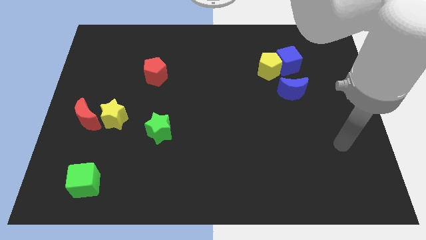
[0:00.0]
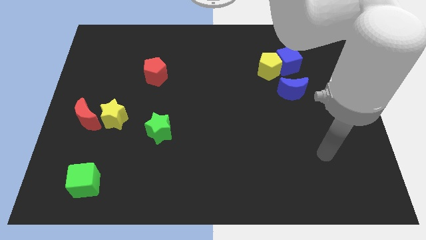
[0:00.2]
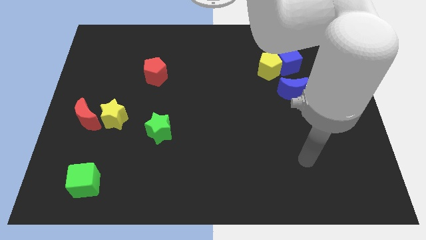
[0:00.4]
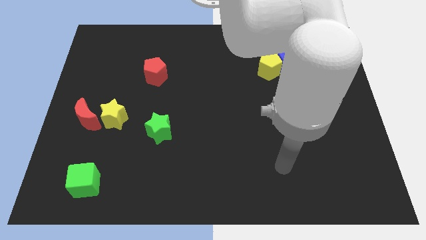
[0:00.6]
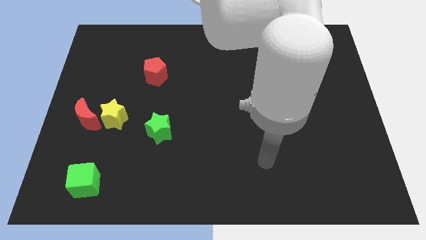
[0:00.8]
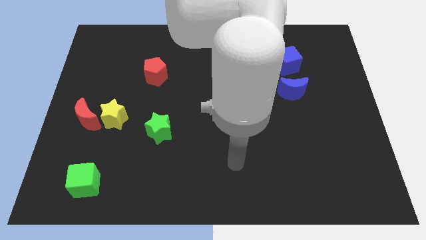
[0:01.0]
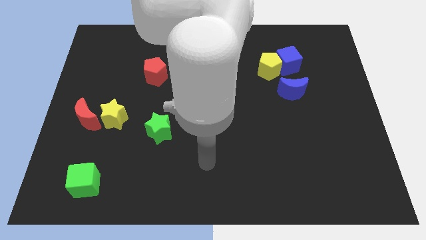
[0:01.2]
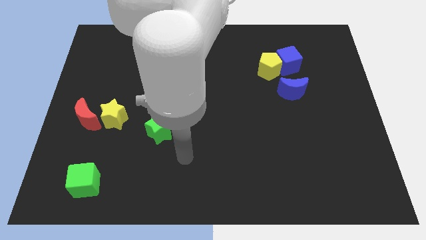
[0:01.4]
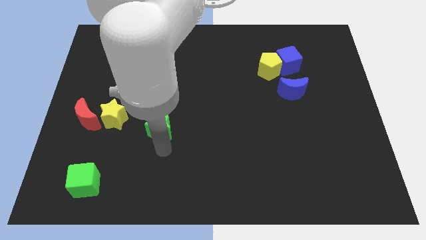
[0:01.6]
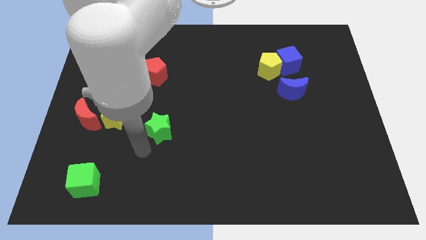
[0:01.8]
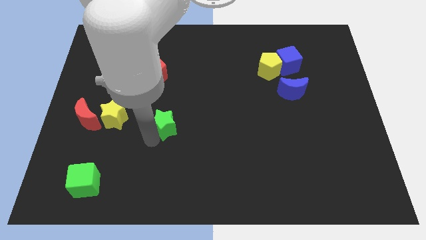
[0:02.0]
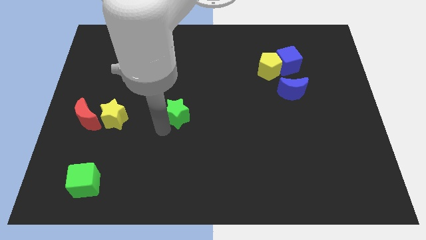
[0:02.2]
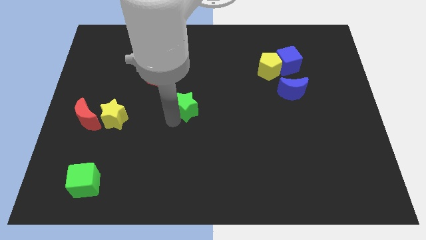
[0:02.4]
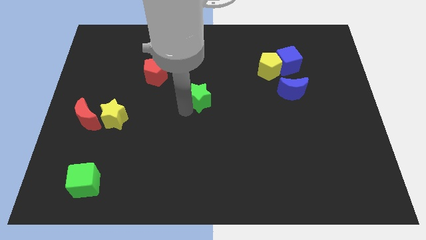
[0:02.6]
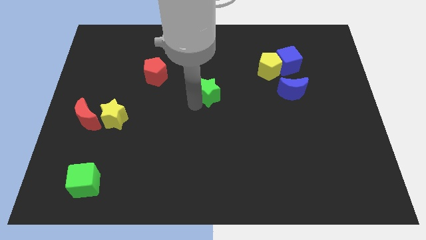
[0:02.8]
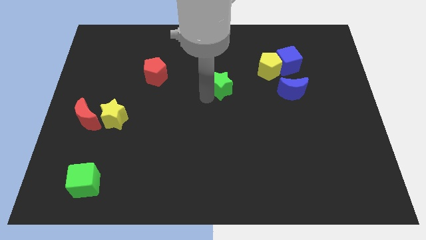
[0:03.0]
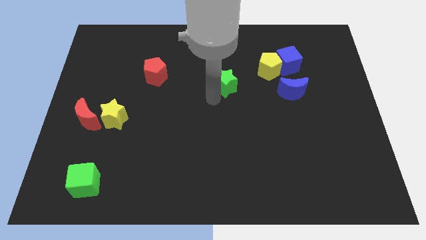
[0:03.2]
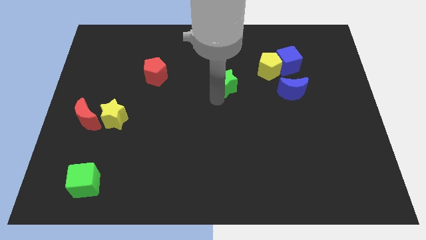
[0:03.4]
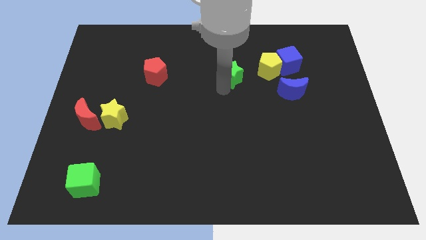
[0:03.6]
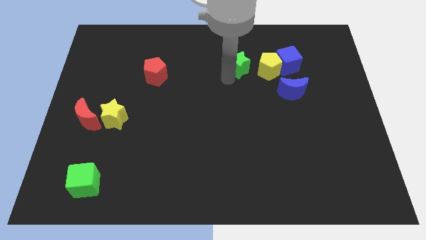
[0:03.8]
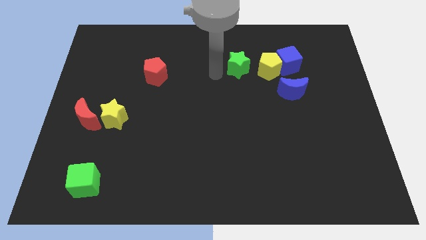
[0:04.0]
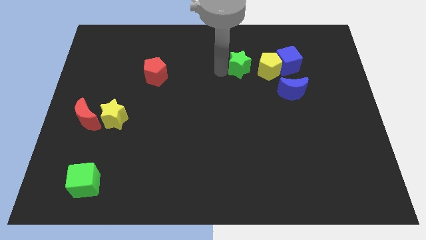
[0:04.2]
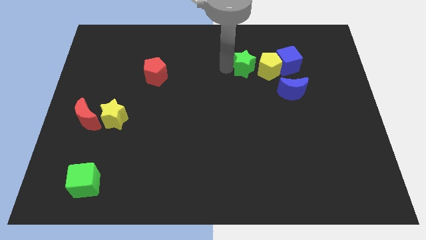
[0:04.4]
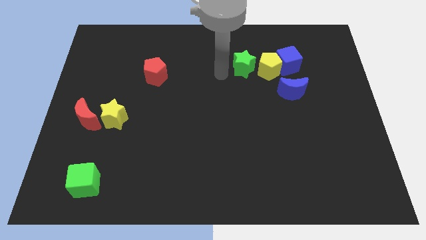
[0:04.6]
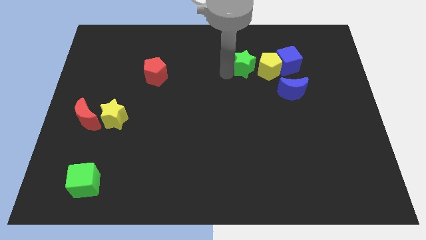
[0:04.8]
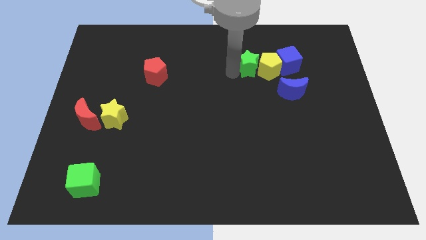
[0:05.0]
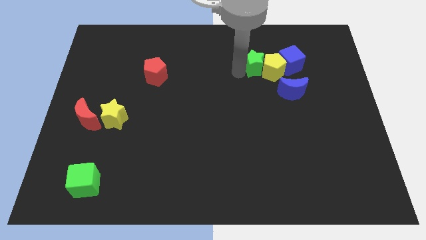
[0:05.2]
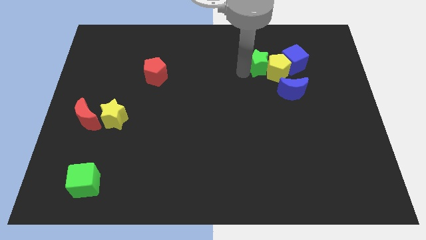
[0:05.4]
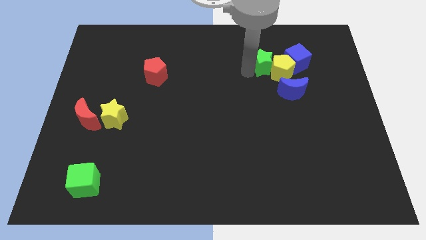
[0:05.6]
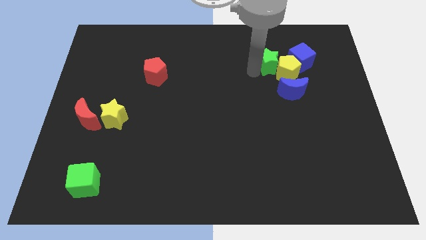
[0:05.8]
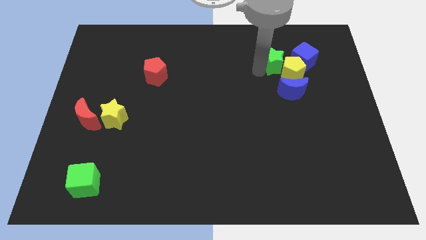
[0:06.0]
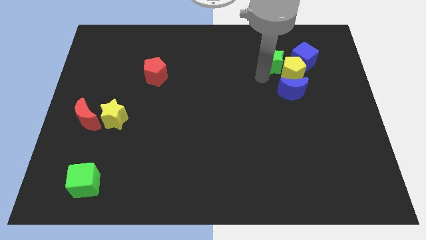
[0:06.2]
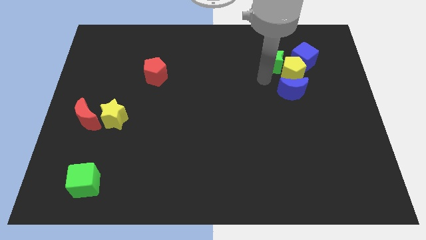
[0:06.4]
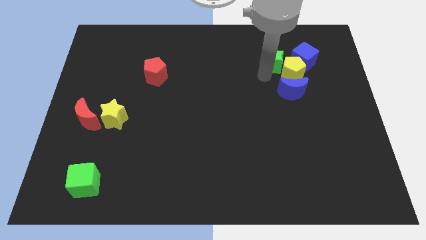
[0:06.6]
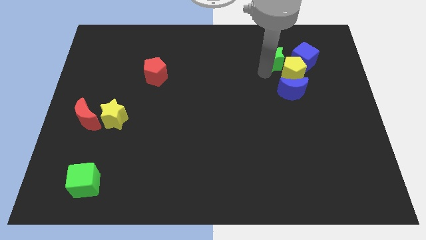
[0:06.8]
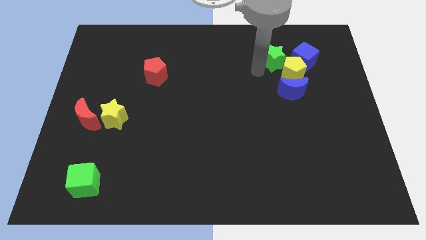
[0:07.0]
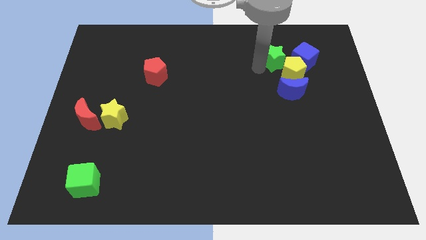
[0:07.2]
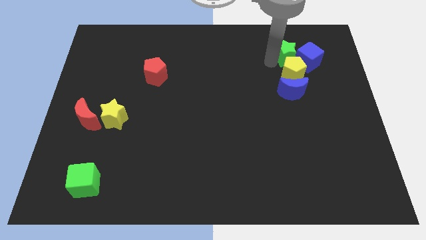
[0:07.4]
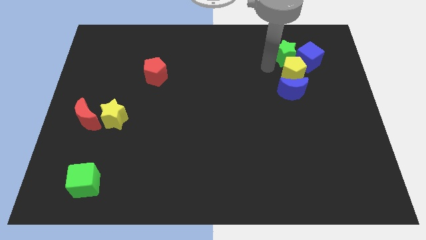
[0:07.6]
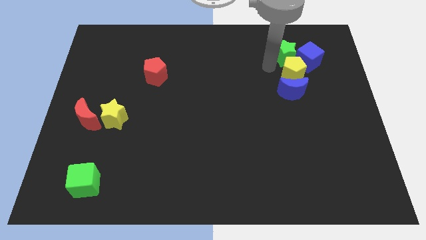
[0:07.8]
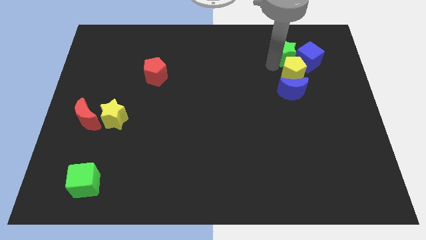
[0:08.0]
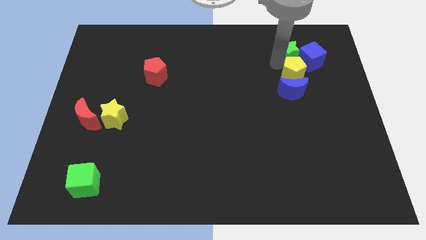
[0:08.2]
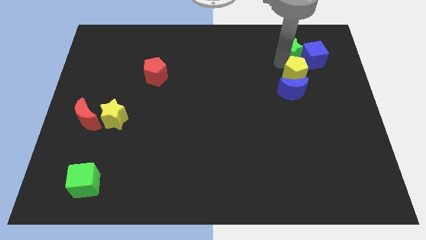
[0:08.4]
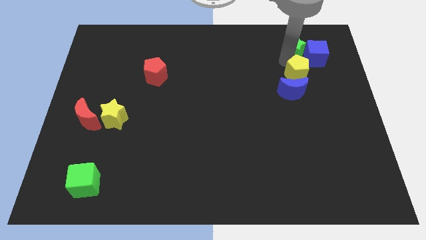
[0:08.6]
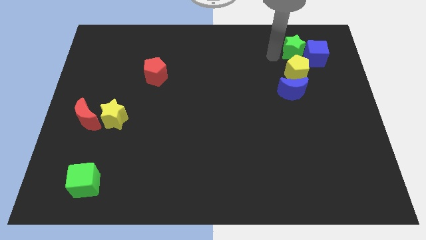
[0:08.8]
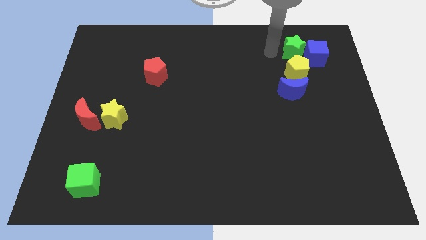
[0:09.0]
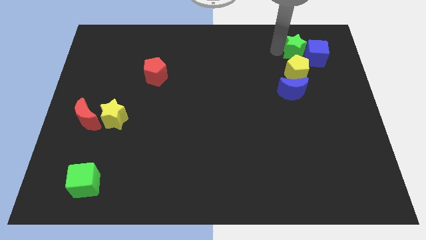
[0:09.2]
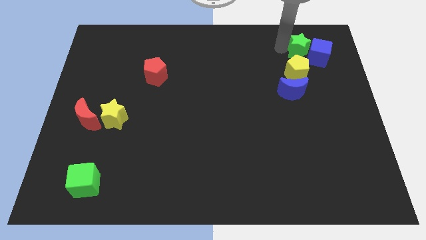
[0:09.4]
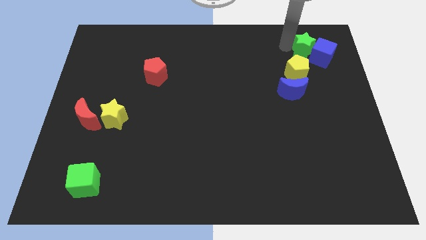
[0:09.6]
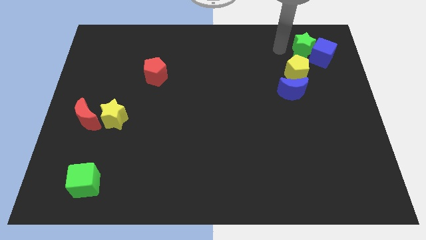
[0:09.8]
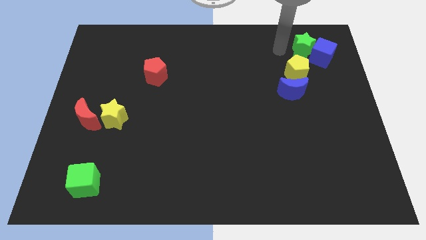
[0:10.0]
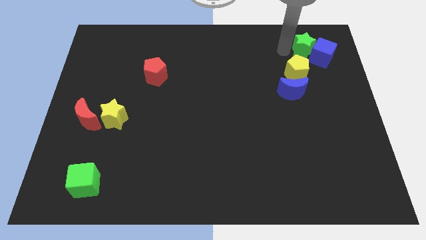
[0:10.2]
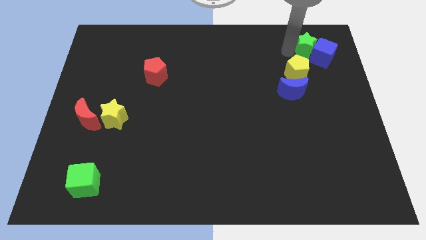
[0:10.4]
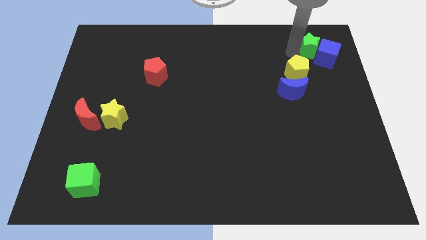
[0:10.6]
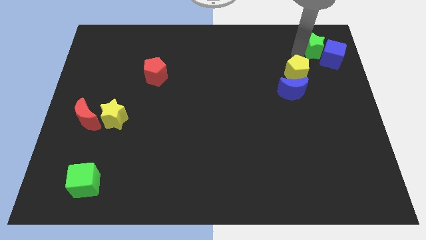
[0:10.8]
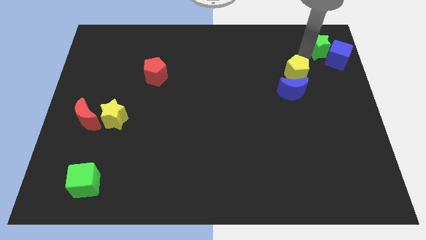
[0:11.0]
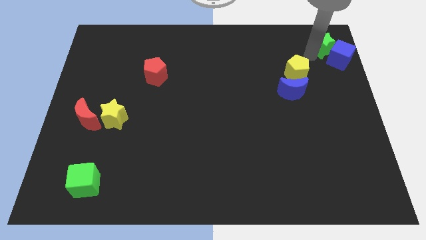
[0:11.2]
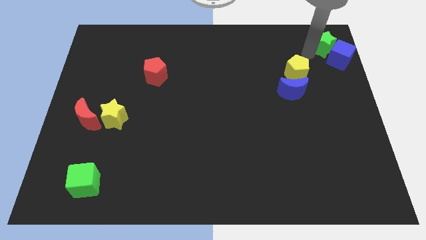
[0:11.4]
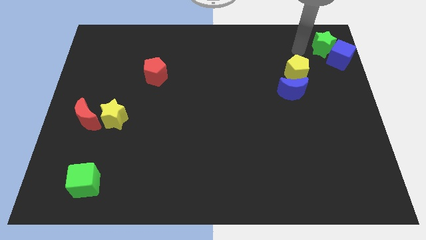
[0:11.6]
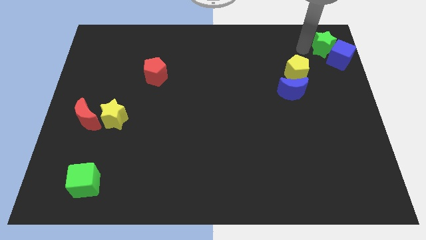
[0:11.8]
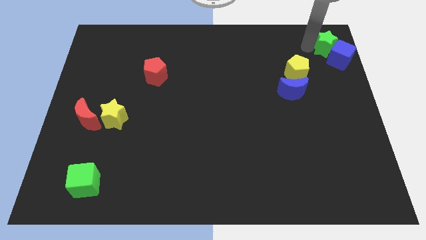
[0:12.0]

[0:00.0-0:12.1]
move the green star to the top right of the board

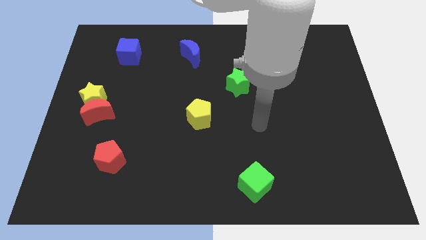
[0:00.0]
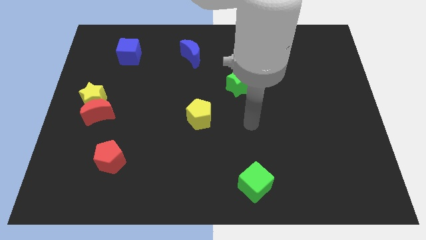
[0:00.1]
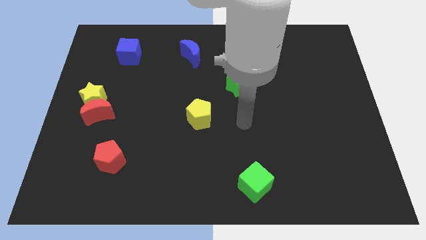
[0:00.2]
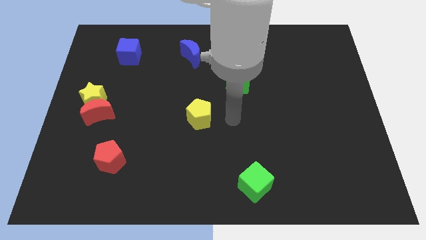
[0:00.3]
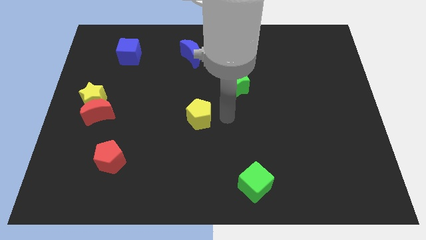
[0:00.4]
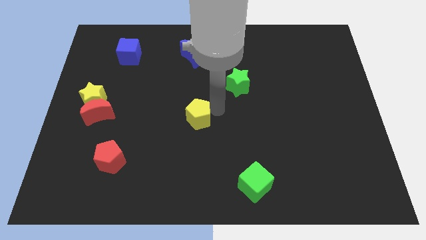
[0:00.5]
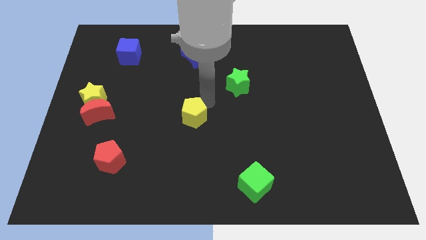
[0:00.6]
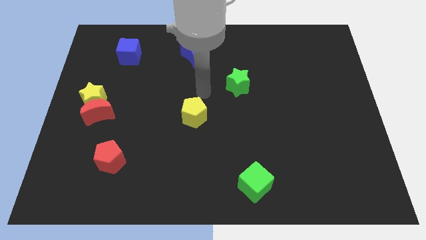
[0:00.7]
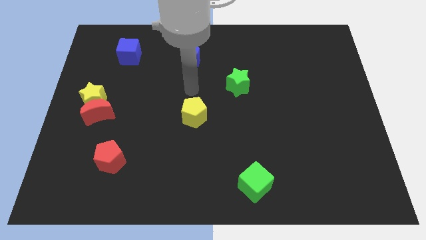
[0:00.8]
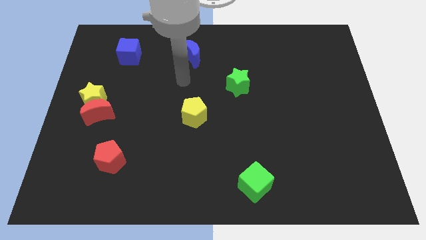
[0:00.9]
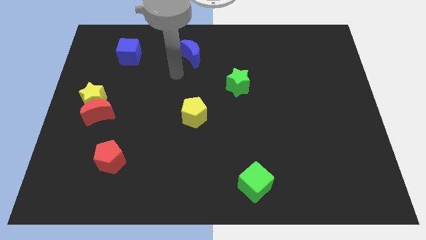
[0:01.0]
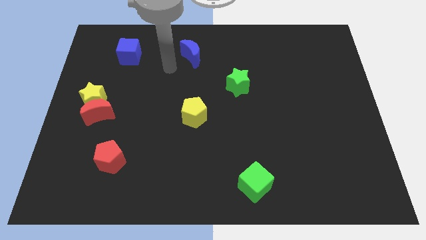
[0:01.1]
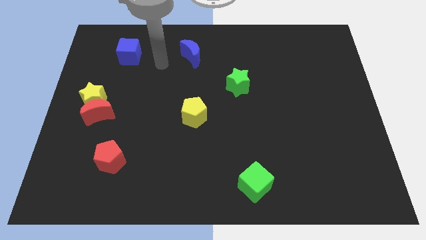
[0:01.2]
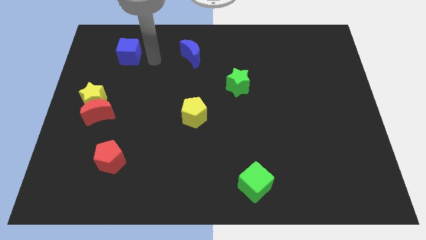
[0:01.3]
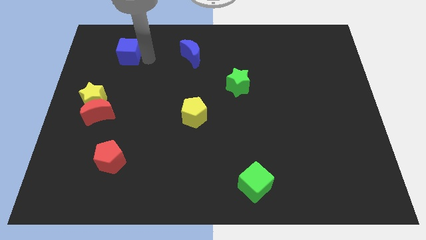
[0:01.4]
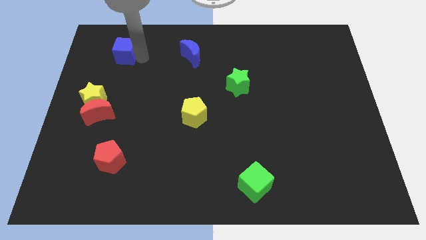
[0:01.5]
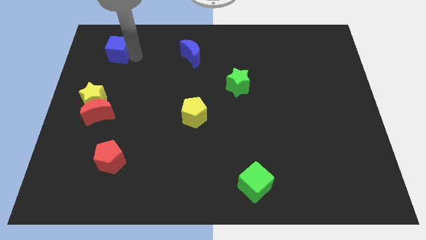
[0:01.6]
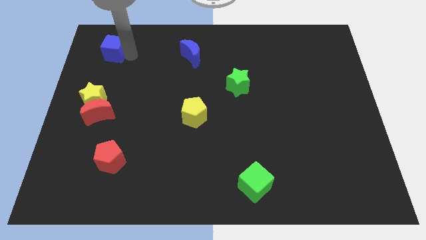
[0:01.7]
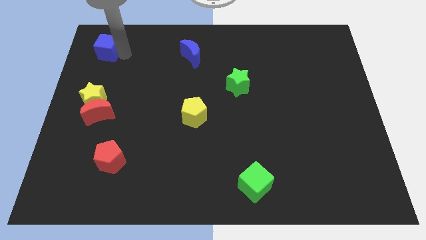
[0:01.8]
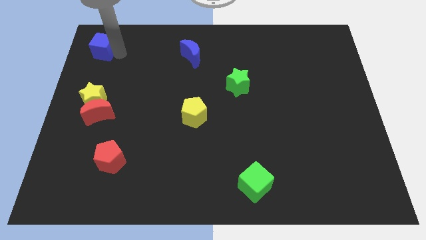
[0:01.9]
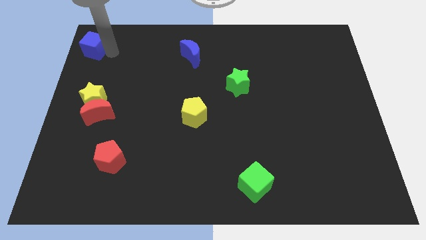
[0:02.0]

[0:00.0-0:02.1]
slide the blue cube to the top left of the board
